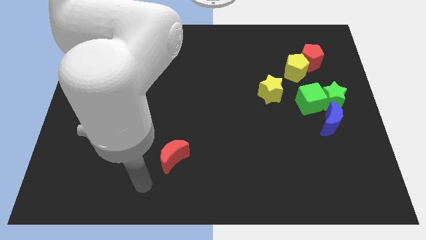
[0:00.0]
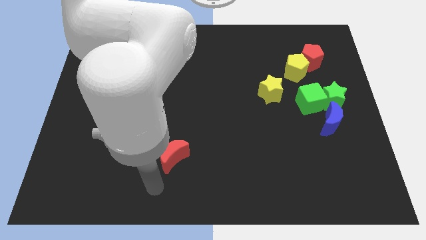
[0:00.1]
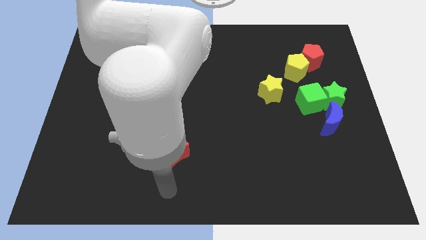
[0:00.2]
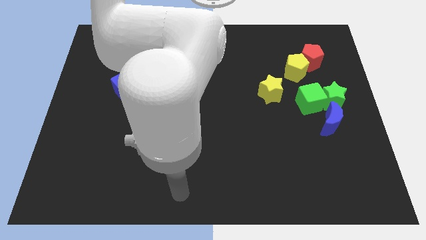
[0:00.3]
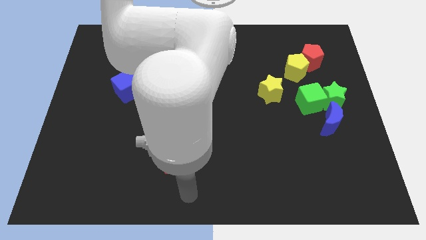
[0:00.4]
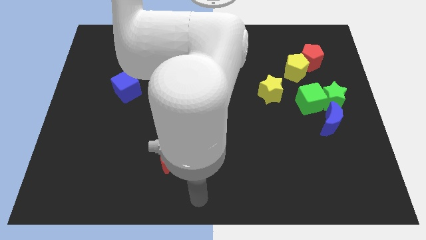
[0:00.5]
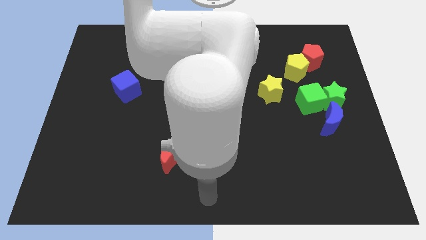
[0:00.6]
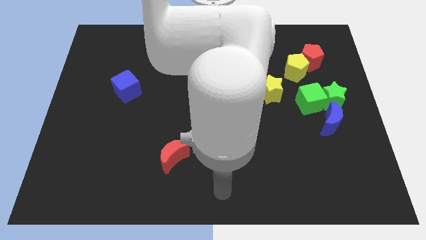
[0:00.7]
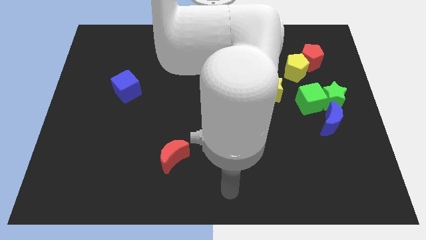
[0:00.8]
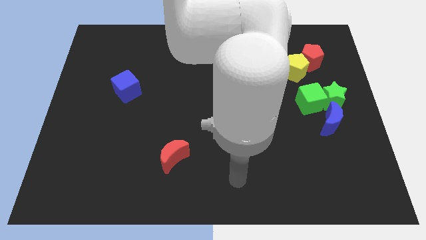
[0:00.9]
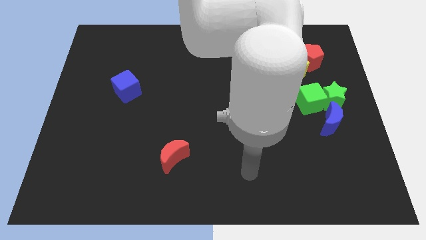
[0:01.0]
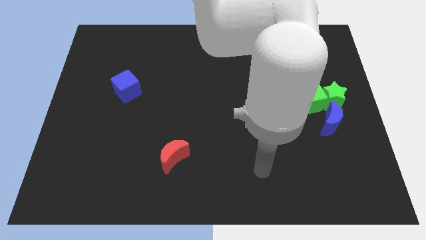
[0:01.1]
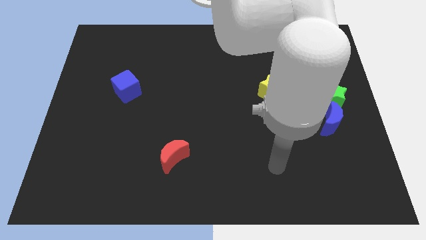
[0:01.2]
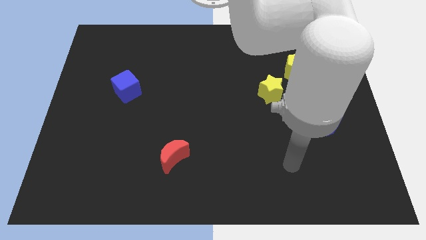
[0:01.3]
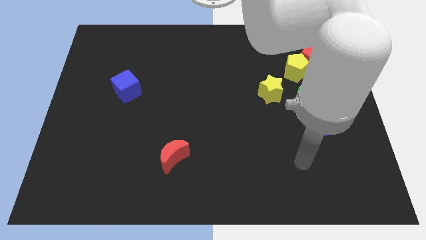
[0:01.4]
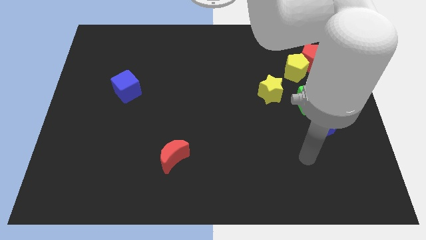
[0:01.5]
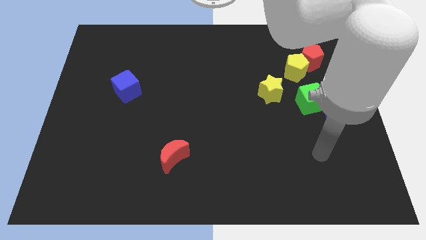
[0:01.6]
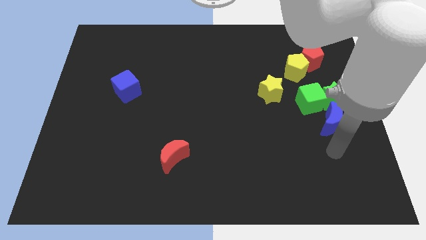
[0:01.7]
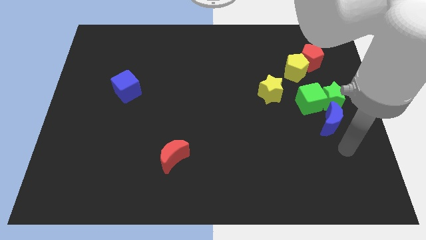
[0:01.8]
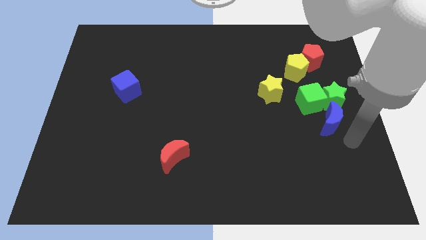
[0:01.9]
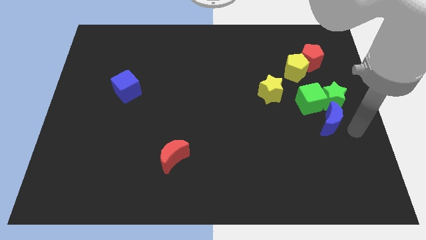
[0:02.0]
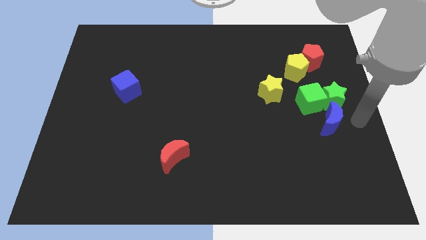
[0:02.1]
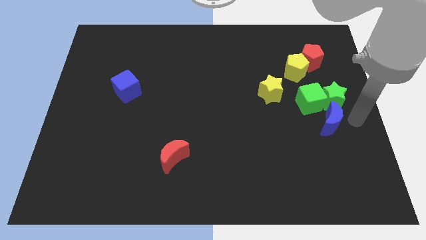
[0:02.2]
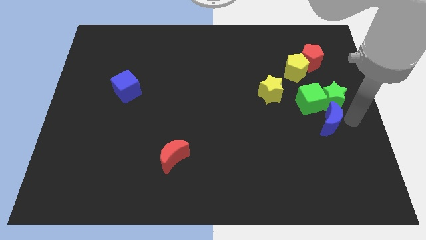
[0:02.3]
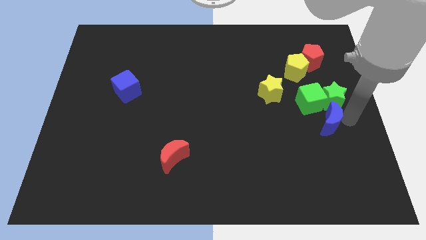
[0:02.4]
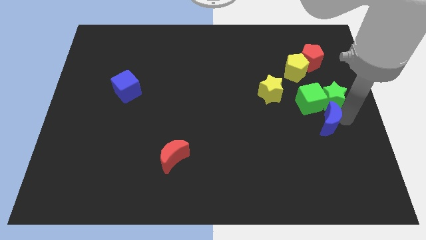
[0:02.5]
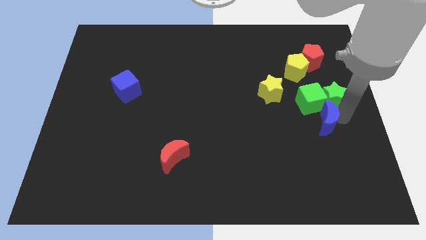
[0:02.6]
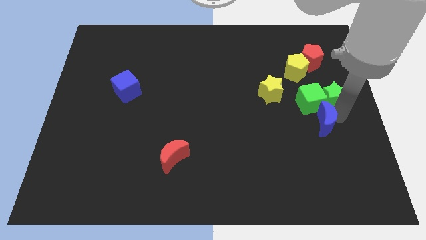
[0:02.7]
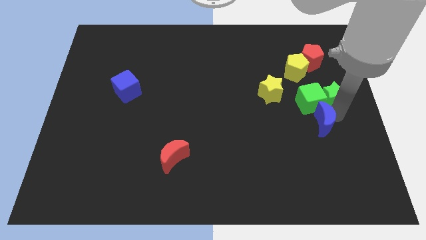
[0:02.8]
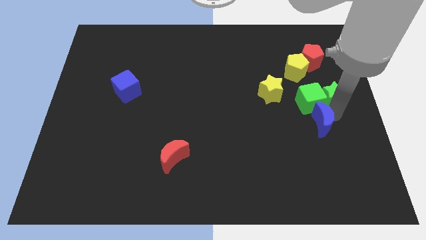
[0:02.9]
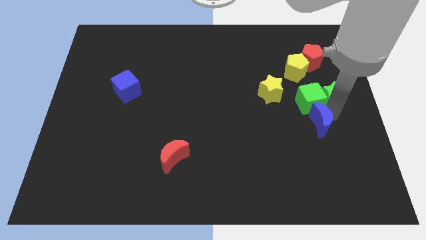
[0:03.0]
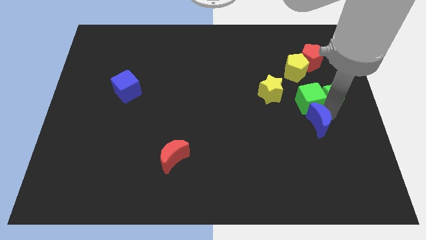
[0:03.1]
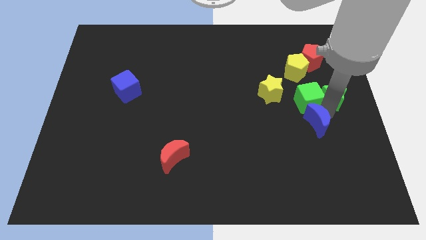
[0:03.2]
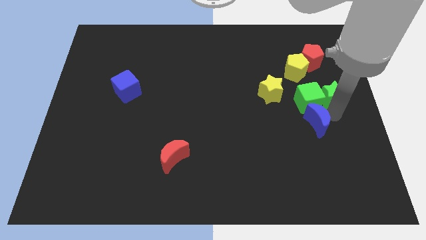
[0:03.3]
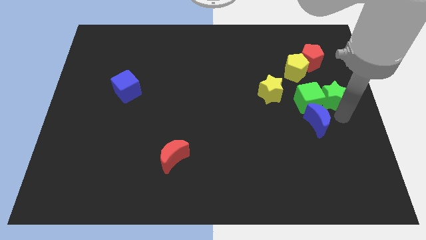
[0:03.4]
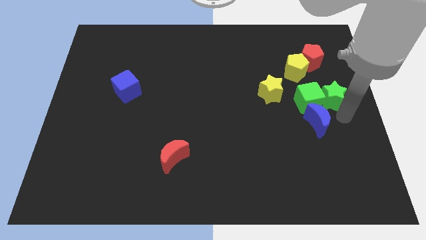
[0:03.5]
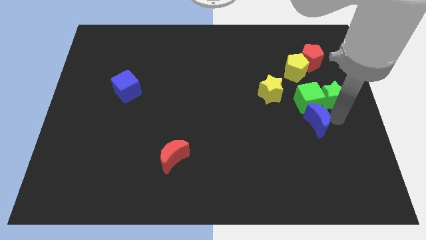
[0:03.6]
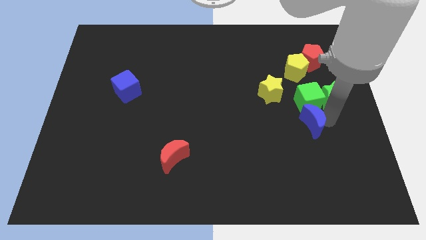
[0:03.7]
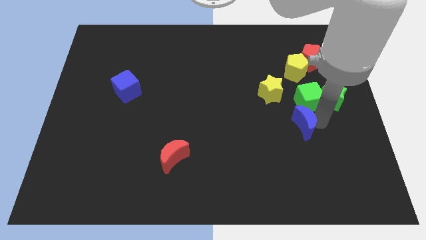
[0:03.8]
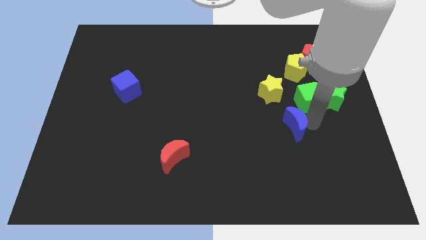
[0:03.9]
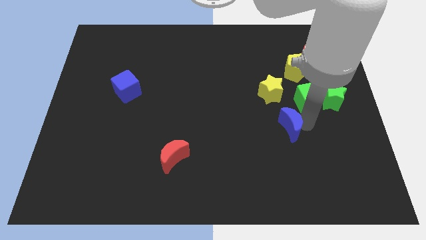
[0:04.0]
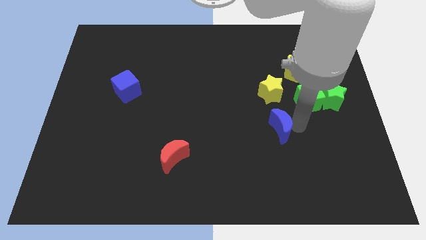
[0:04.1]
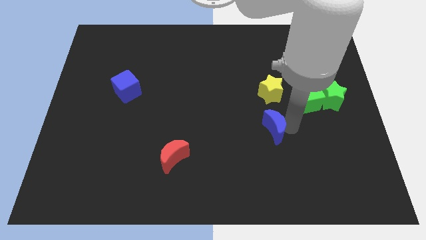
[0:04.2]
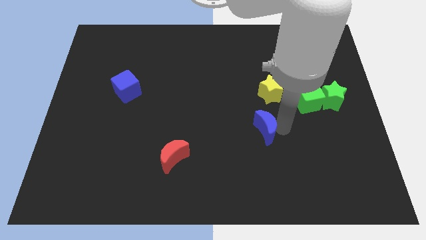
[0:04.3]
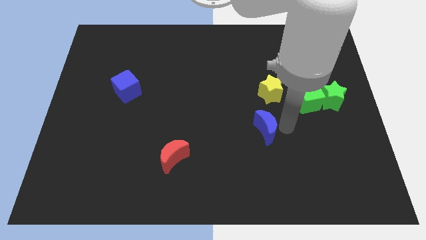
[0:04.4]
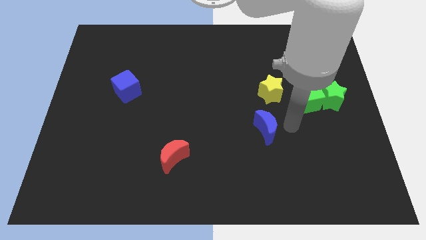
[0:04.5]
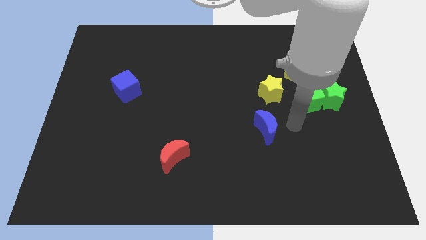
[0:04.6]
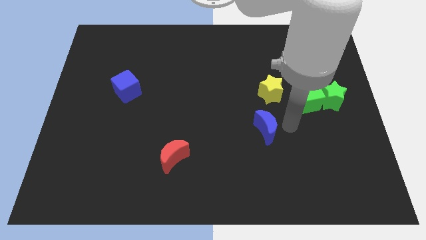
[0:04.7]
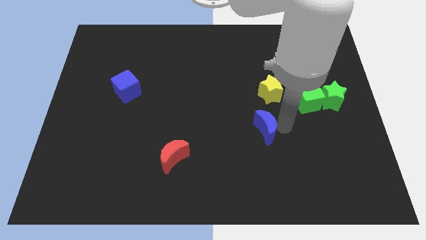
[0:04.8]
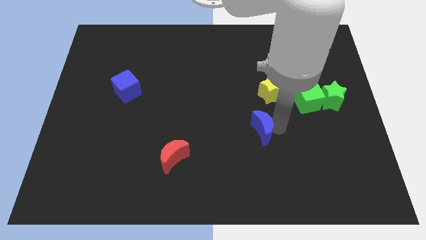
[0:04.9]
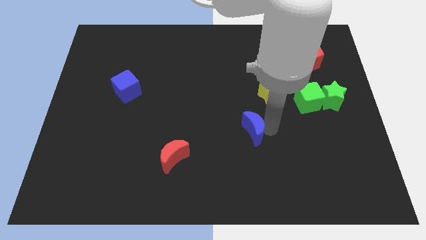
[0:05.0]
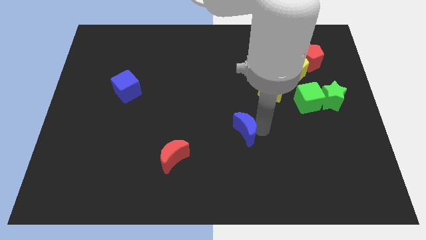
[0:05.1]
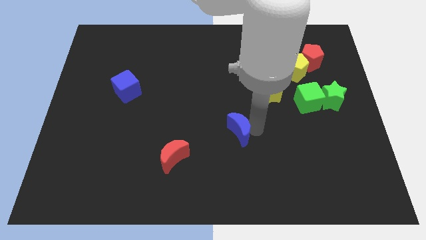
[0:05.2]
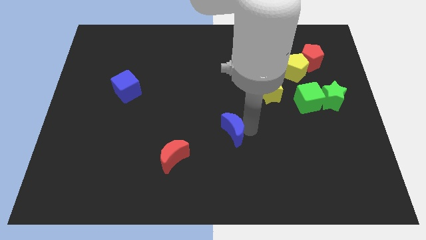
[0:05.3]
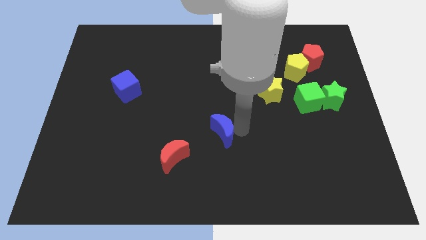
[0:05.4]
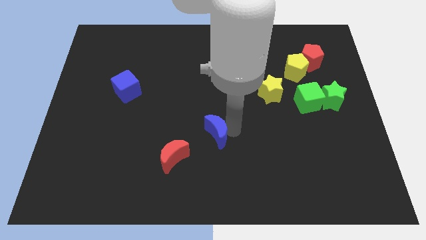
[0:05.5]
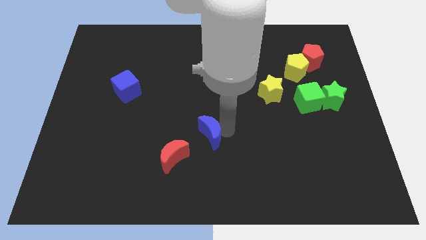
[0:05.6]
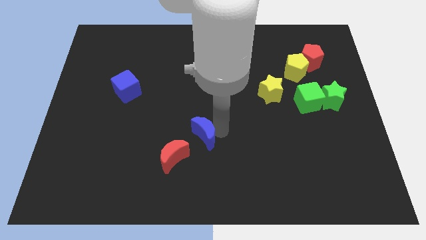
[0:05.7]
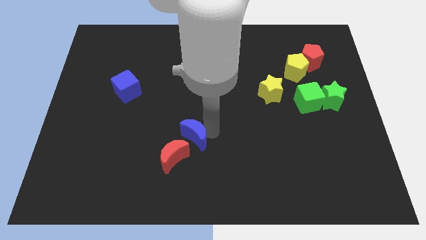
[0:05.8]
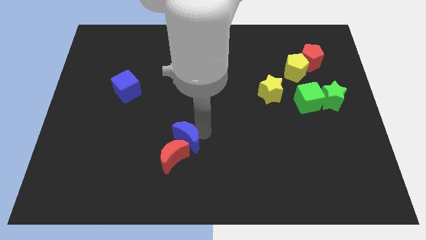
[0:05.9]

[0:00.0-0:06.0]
put the blue moon close to the red moon
